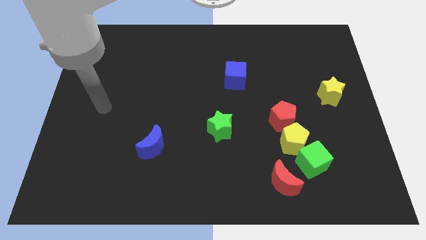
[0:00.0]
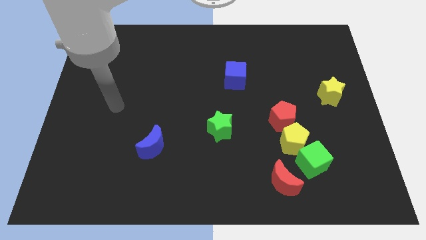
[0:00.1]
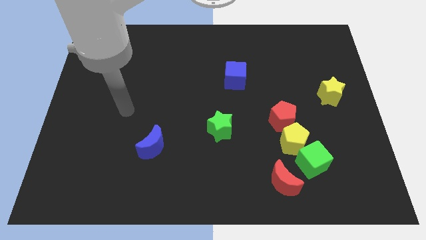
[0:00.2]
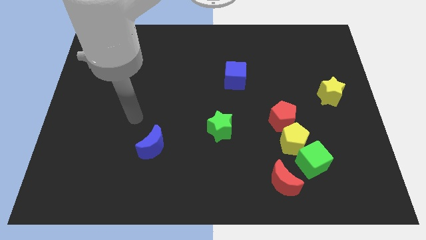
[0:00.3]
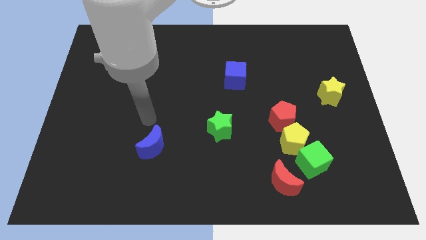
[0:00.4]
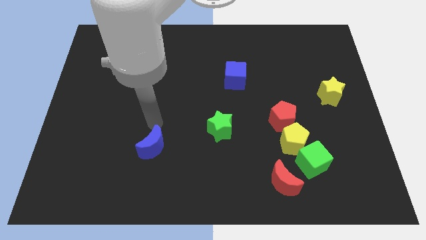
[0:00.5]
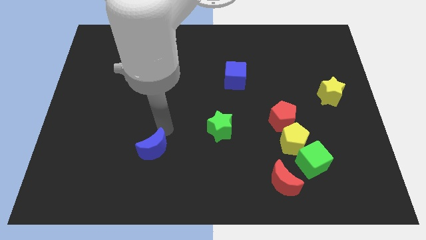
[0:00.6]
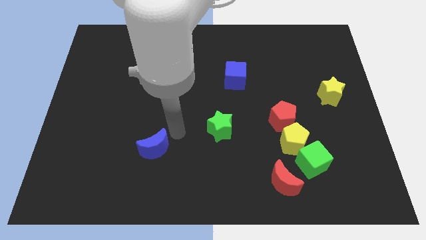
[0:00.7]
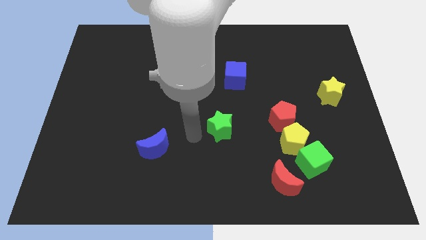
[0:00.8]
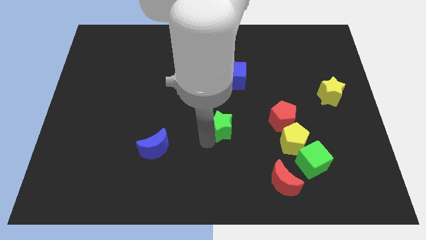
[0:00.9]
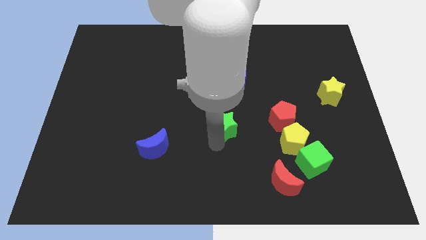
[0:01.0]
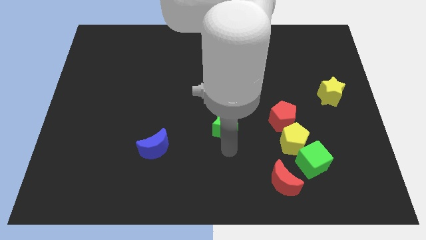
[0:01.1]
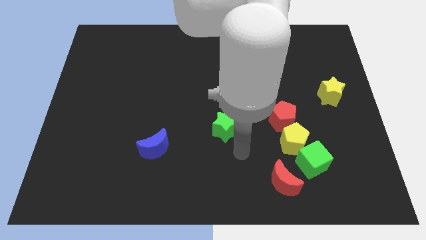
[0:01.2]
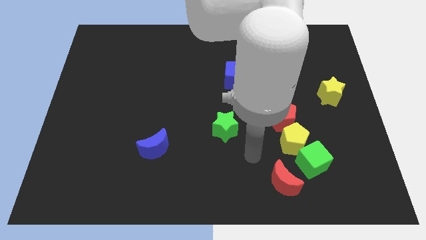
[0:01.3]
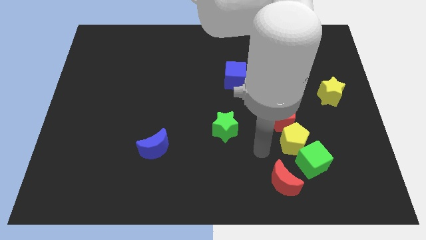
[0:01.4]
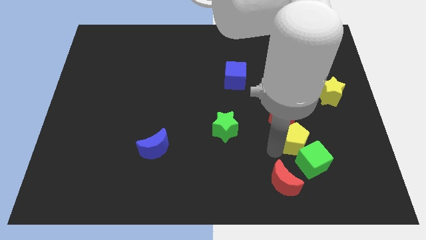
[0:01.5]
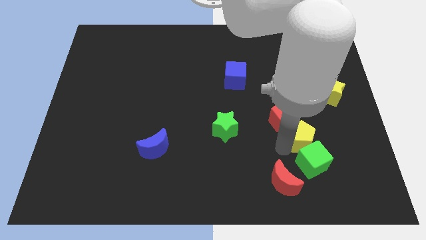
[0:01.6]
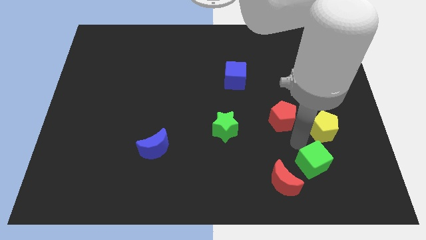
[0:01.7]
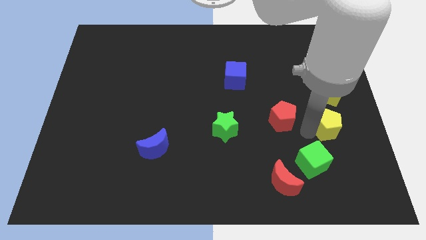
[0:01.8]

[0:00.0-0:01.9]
move the red pentagon away from the yellow pentagon

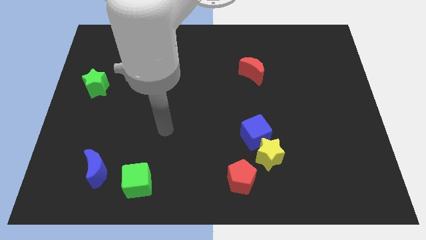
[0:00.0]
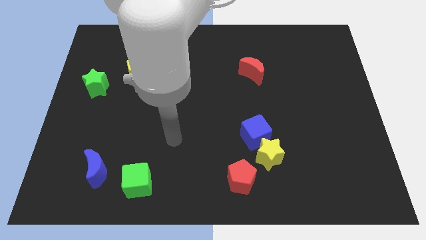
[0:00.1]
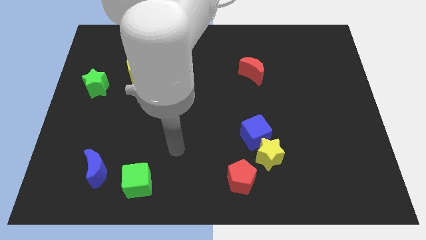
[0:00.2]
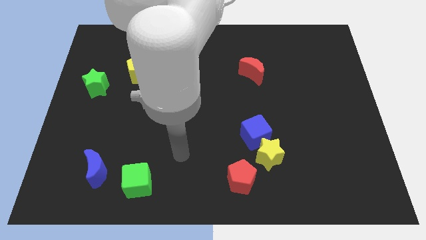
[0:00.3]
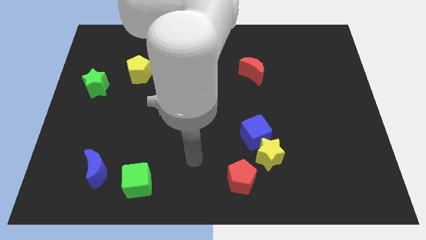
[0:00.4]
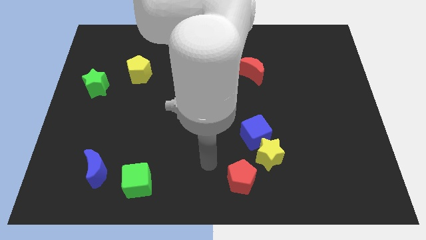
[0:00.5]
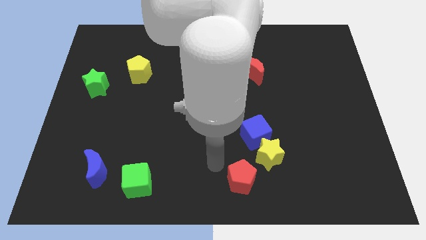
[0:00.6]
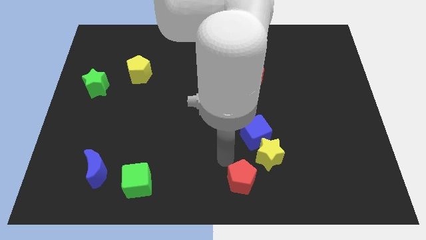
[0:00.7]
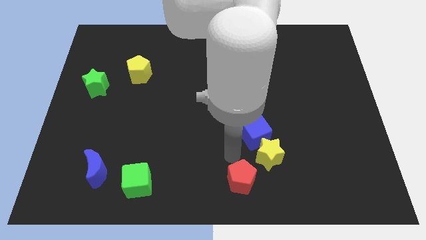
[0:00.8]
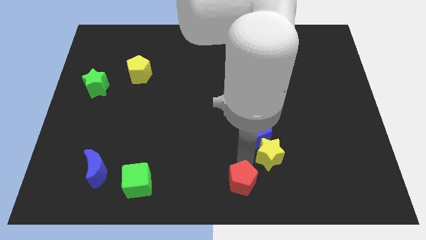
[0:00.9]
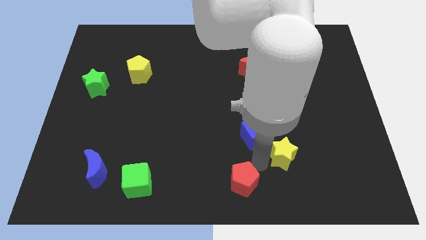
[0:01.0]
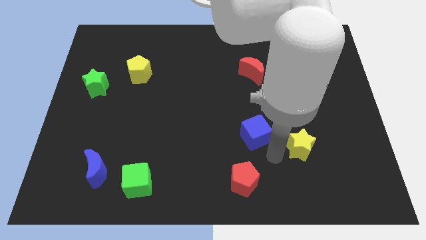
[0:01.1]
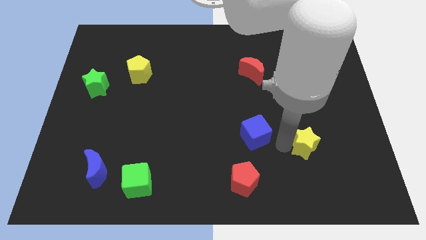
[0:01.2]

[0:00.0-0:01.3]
pull the blue cube apart from the yellow star

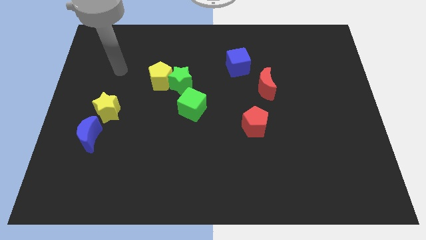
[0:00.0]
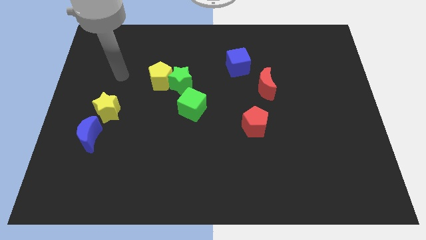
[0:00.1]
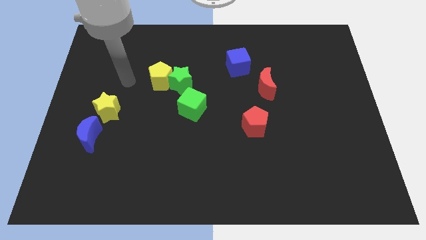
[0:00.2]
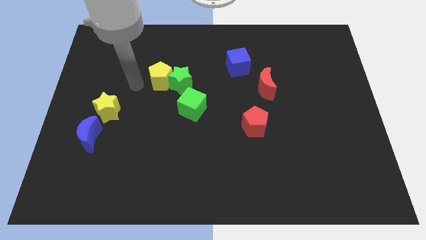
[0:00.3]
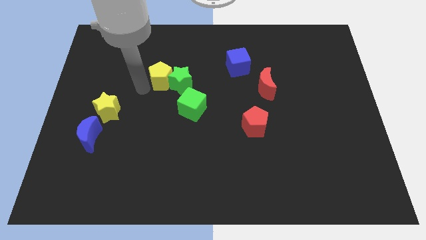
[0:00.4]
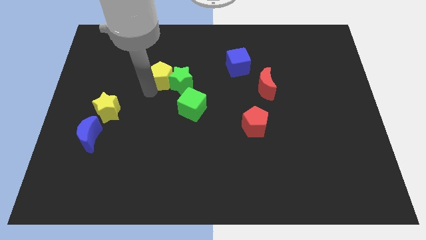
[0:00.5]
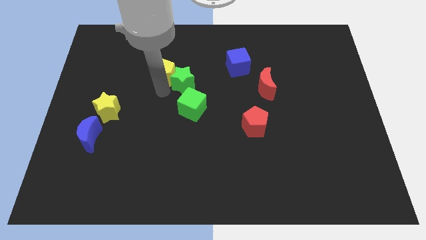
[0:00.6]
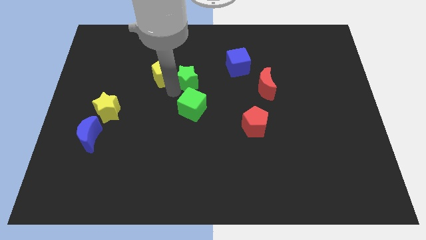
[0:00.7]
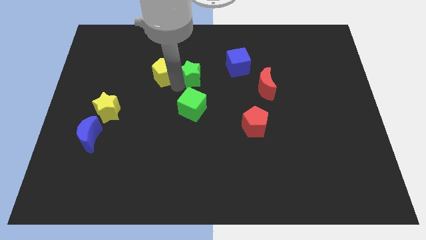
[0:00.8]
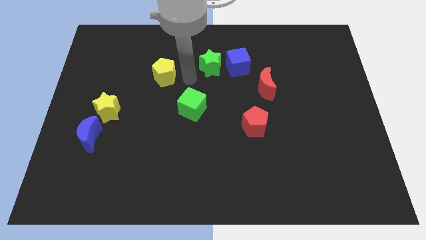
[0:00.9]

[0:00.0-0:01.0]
separate the yellow pentagon from the green star

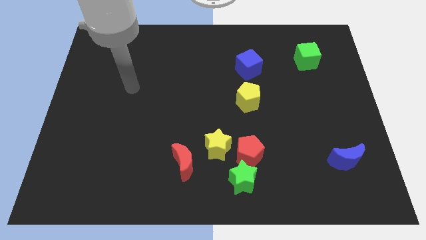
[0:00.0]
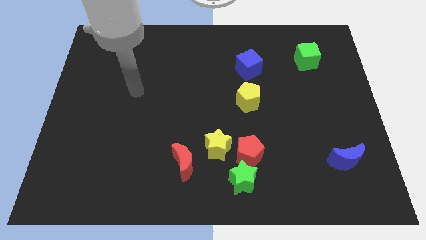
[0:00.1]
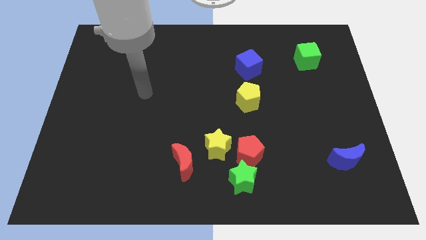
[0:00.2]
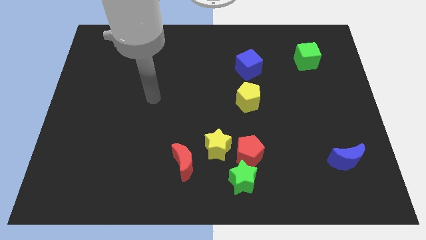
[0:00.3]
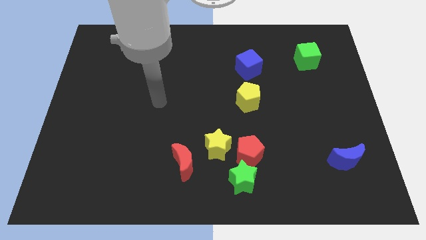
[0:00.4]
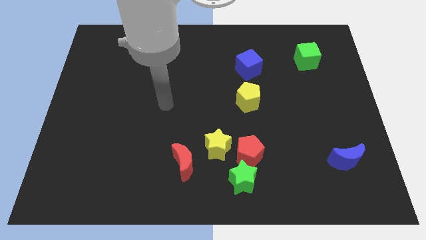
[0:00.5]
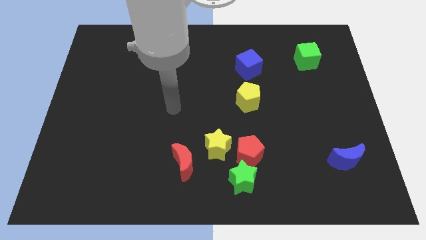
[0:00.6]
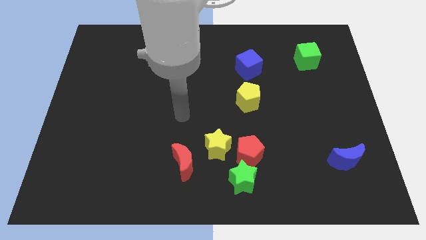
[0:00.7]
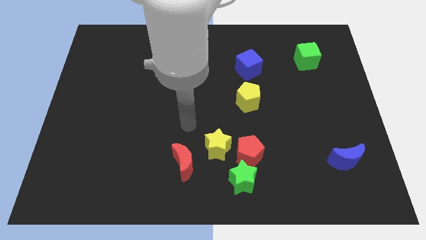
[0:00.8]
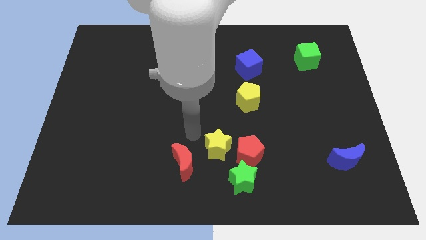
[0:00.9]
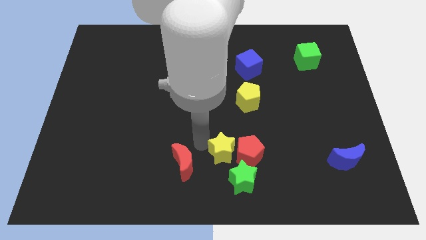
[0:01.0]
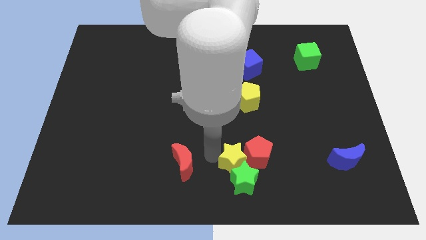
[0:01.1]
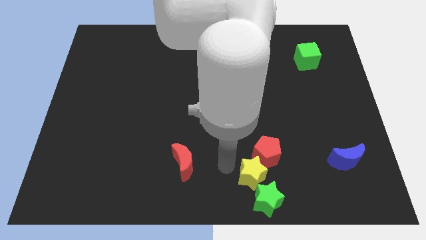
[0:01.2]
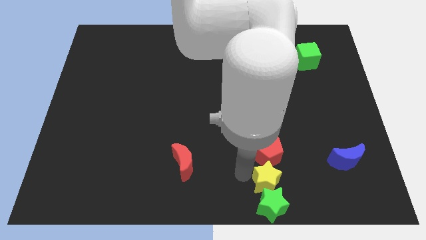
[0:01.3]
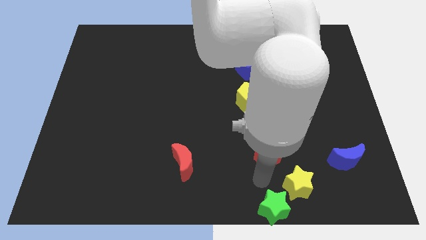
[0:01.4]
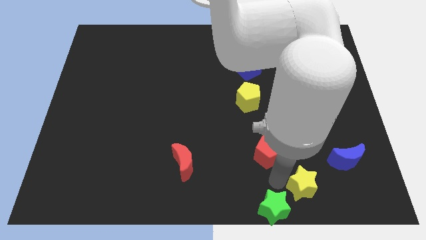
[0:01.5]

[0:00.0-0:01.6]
pull the red pentagon apart from the green star and yellow star

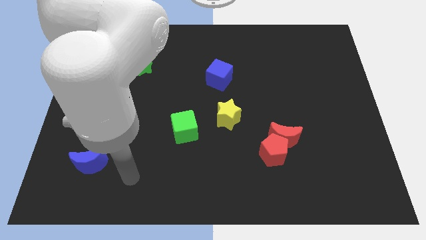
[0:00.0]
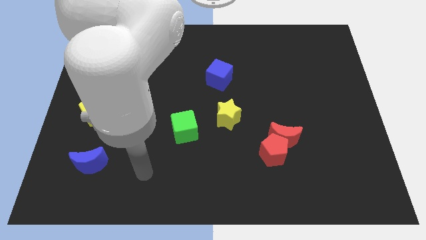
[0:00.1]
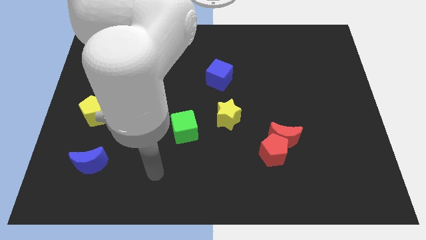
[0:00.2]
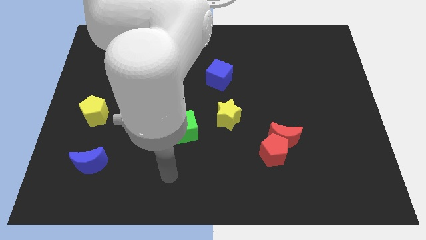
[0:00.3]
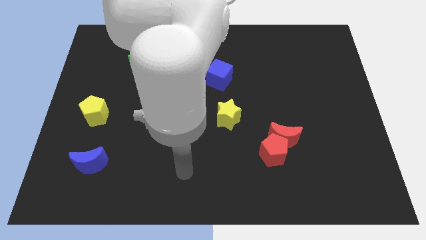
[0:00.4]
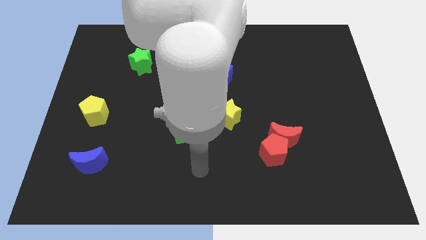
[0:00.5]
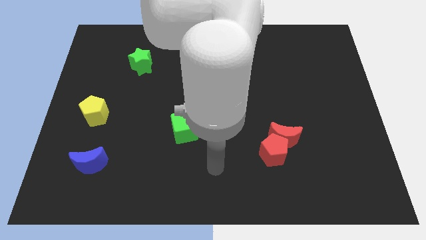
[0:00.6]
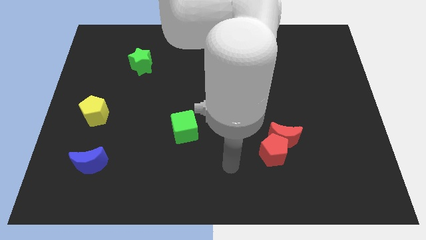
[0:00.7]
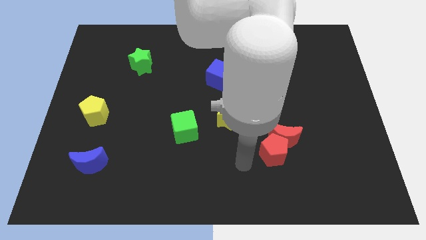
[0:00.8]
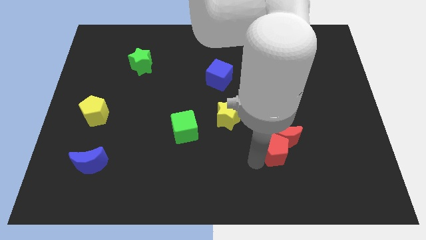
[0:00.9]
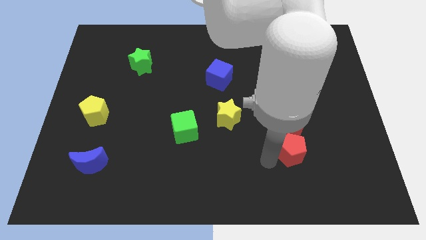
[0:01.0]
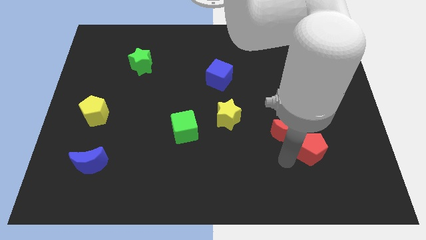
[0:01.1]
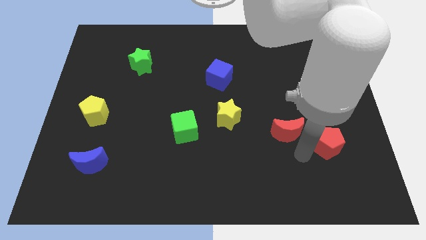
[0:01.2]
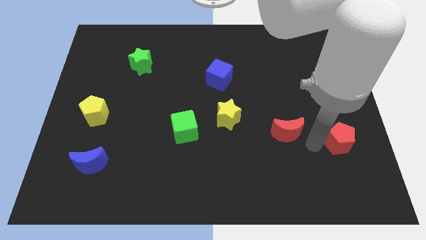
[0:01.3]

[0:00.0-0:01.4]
separate the red moon from the red pentagon

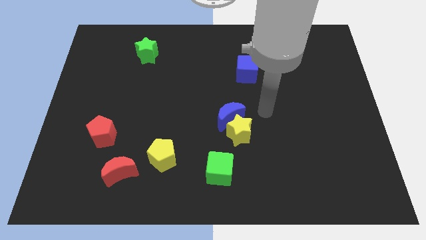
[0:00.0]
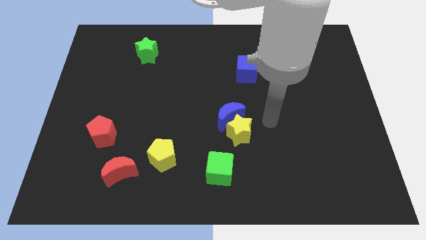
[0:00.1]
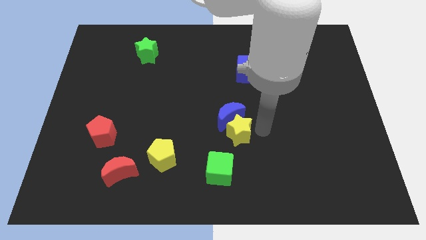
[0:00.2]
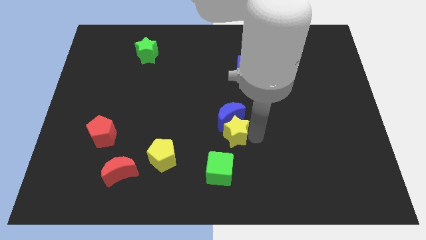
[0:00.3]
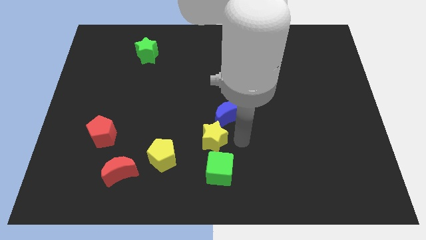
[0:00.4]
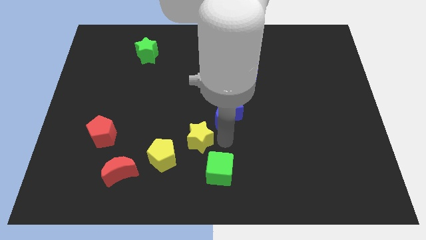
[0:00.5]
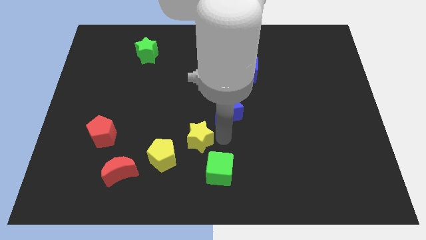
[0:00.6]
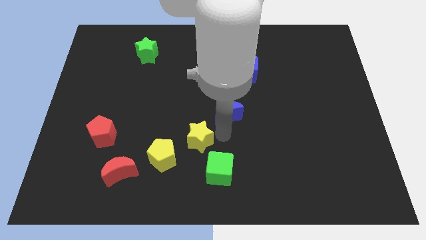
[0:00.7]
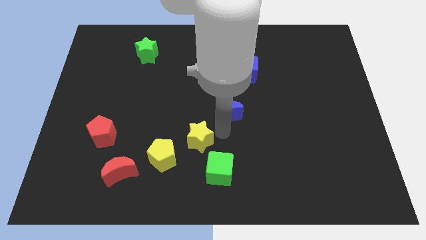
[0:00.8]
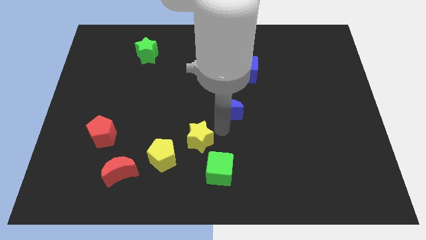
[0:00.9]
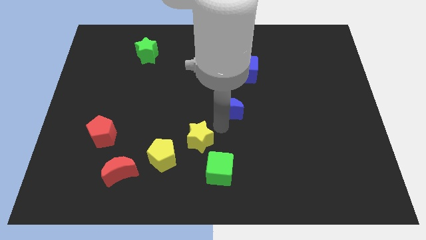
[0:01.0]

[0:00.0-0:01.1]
separate the blue moon from the yellow star

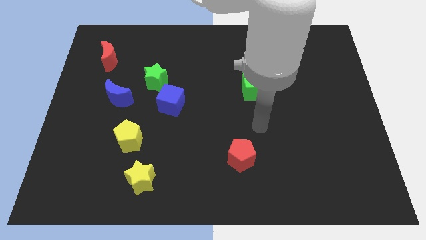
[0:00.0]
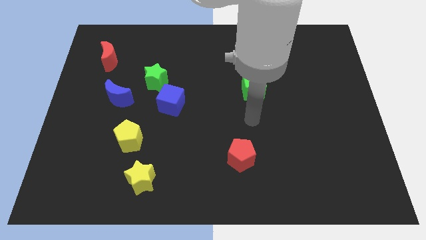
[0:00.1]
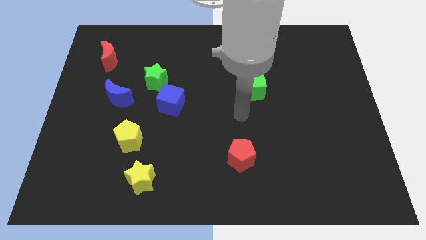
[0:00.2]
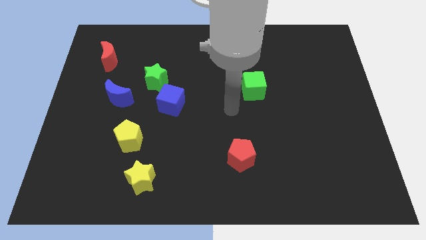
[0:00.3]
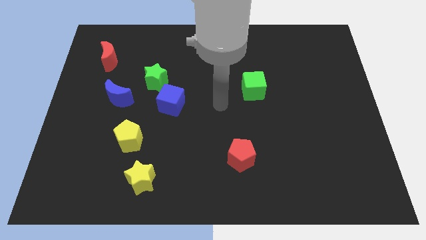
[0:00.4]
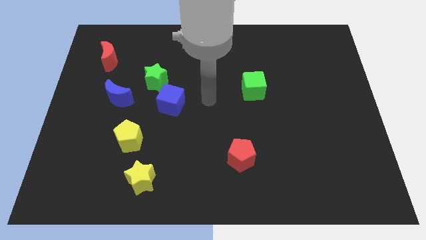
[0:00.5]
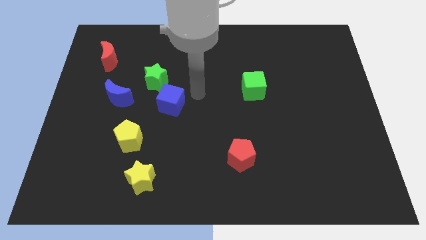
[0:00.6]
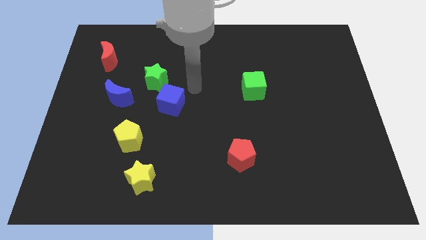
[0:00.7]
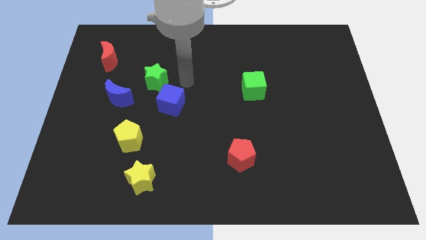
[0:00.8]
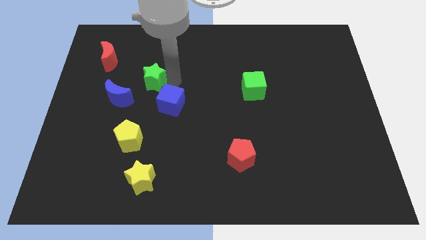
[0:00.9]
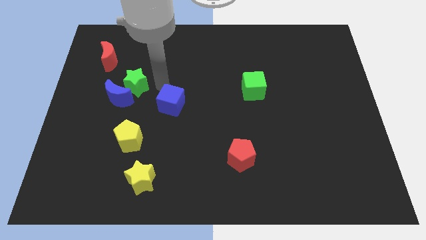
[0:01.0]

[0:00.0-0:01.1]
separate the blue cube from the green star

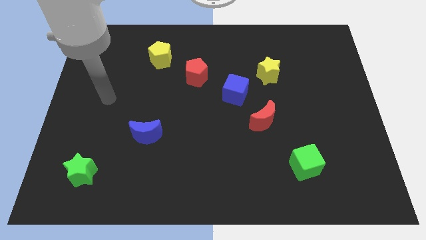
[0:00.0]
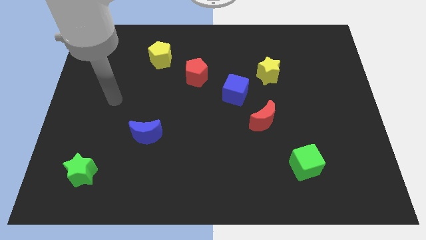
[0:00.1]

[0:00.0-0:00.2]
pull the red moon apart from the blue cube
